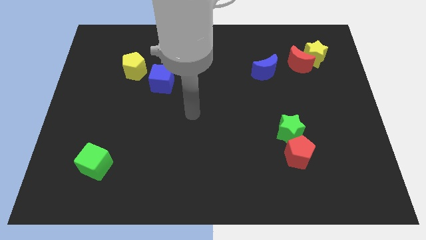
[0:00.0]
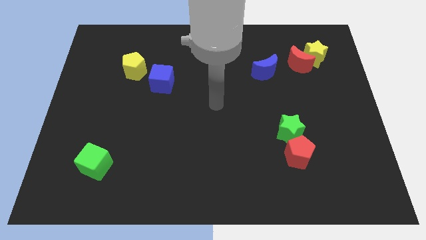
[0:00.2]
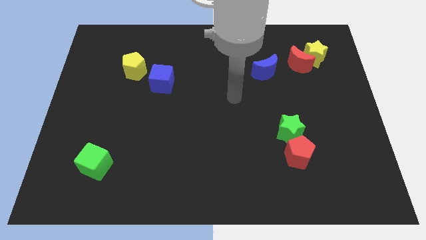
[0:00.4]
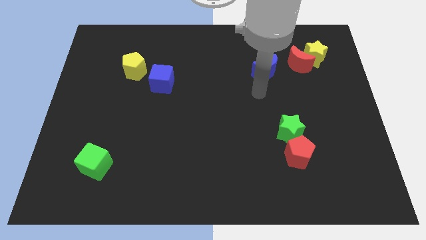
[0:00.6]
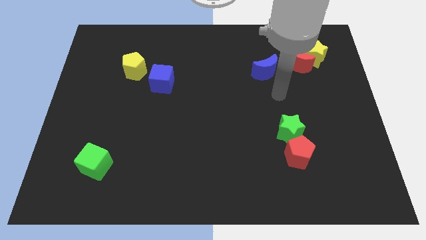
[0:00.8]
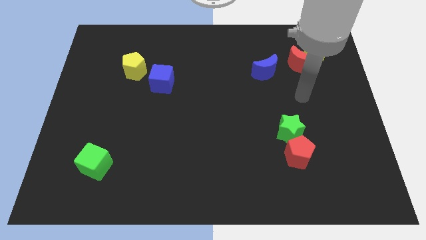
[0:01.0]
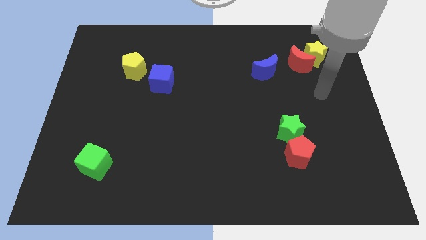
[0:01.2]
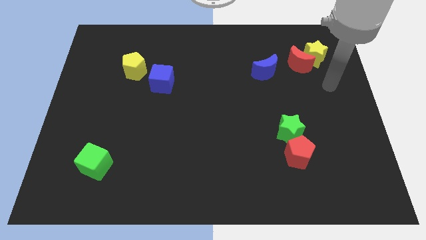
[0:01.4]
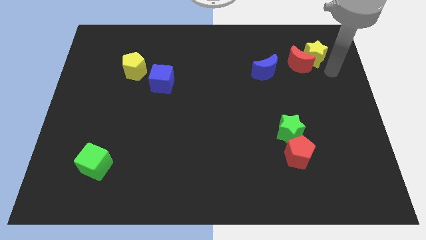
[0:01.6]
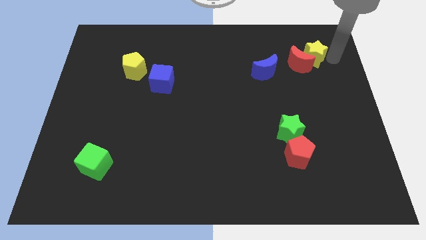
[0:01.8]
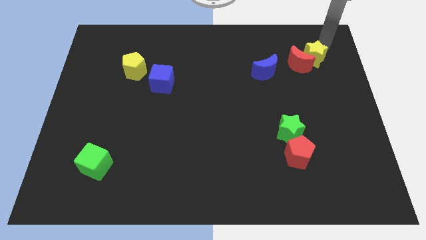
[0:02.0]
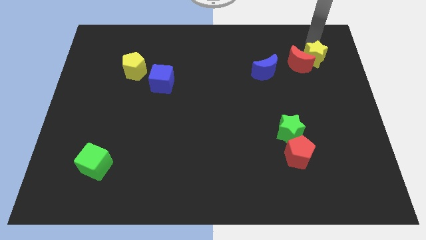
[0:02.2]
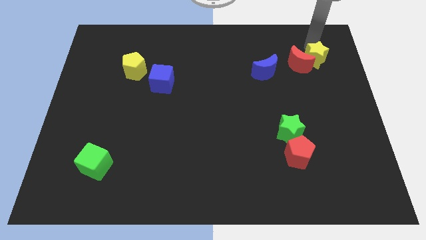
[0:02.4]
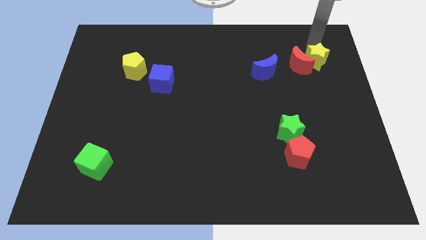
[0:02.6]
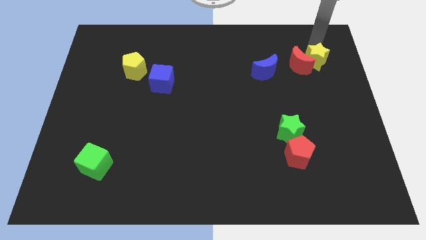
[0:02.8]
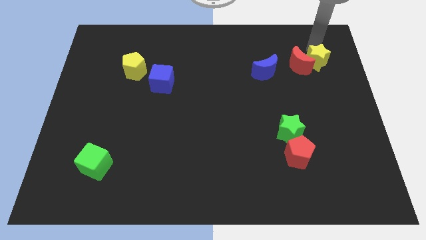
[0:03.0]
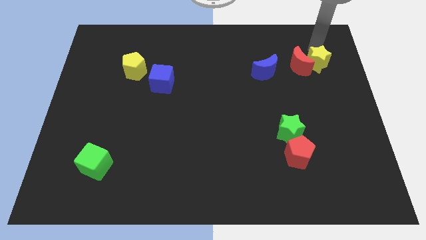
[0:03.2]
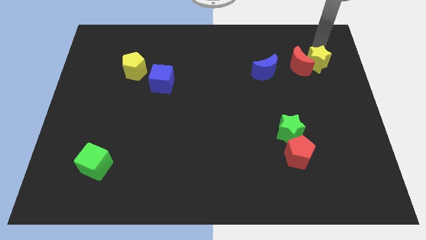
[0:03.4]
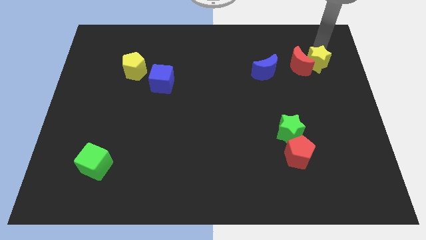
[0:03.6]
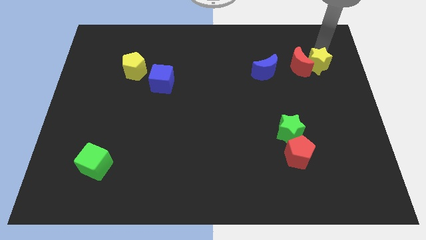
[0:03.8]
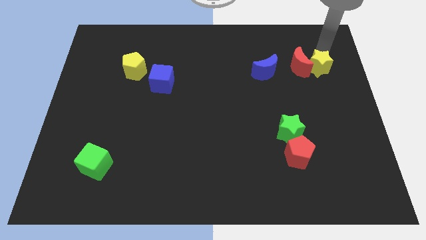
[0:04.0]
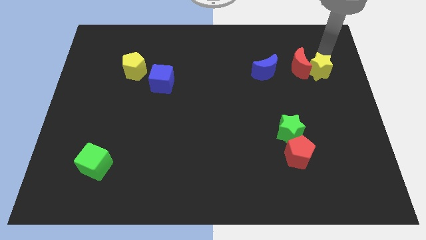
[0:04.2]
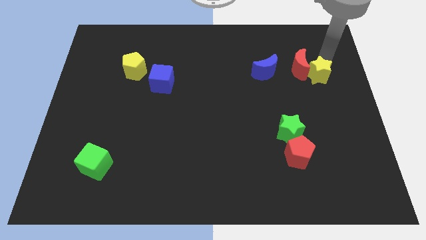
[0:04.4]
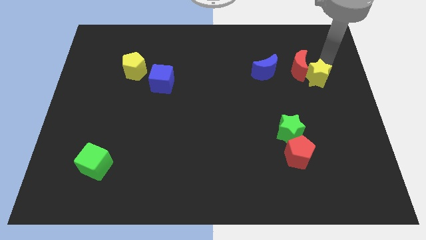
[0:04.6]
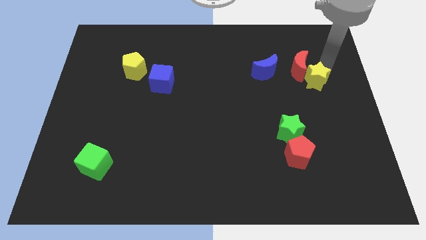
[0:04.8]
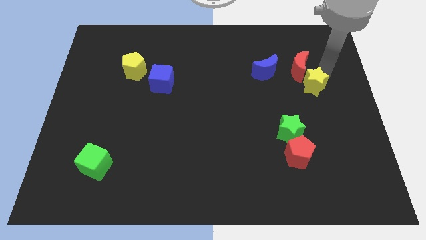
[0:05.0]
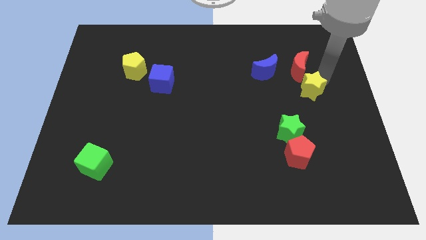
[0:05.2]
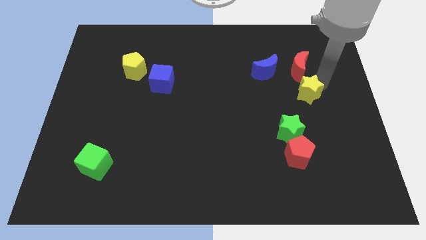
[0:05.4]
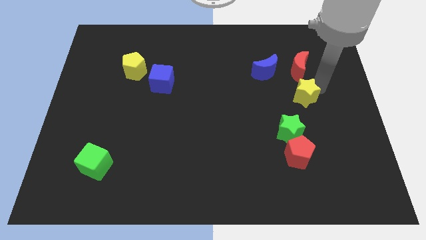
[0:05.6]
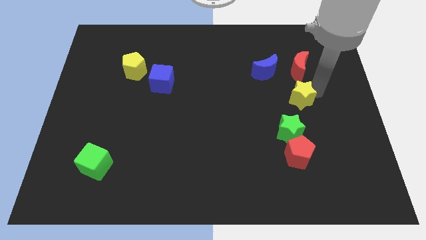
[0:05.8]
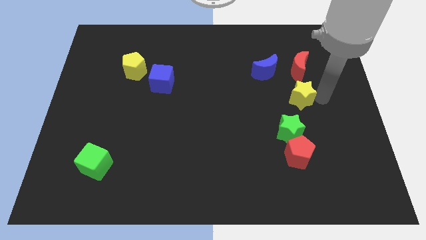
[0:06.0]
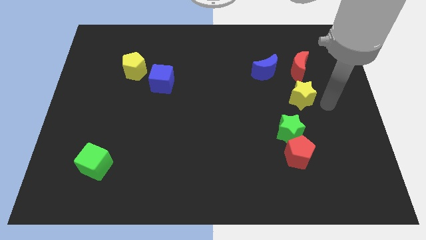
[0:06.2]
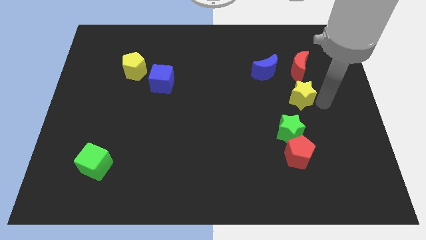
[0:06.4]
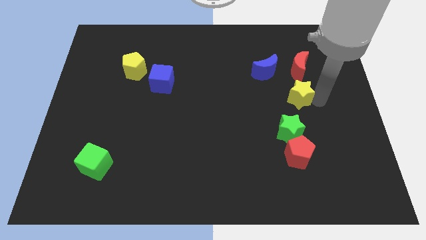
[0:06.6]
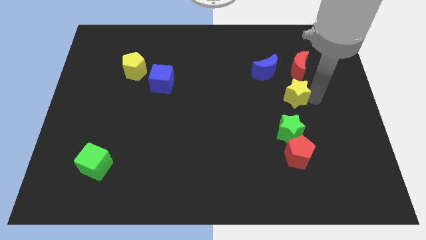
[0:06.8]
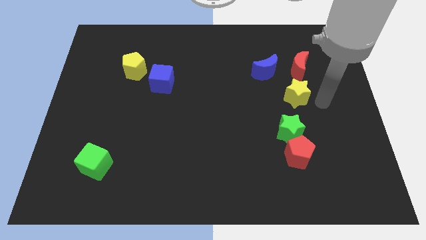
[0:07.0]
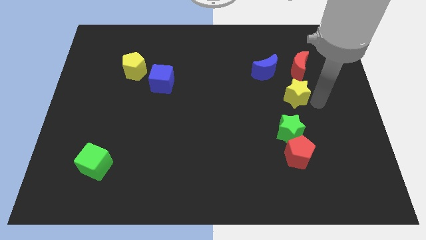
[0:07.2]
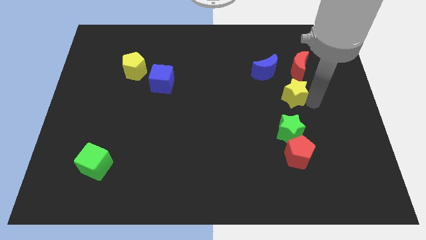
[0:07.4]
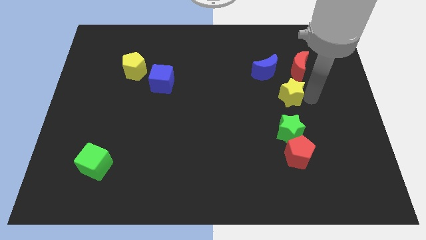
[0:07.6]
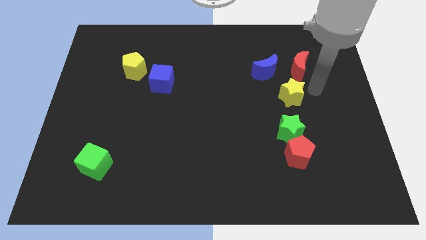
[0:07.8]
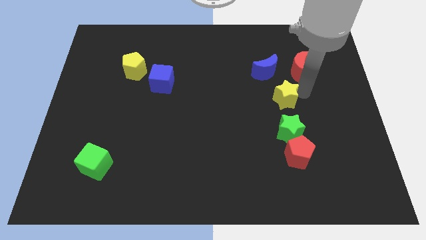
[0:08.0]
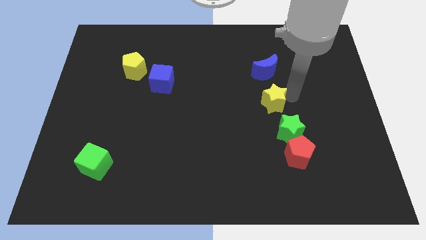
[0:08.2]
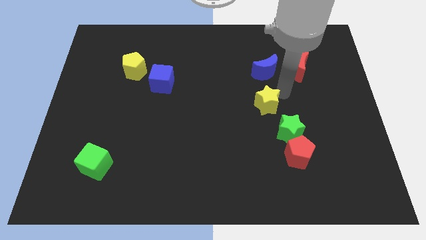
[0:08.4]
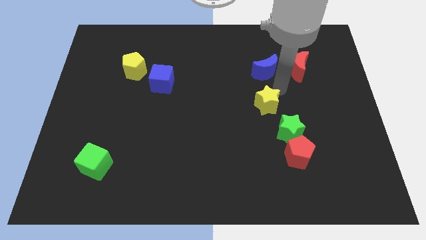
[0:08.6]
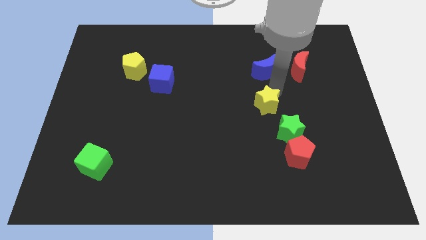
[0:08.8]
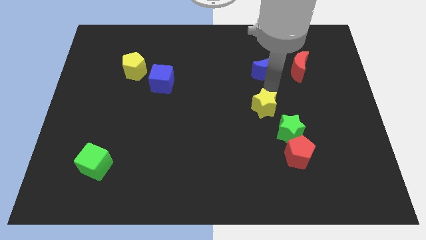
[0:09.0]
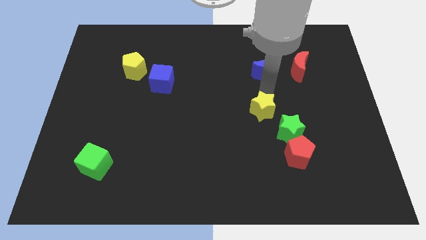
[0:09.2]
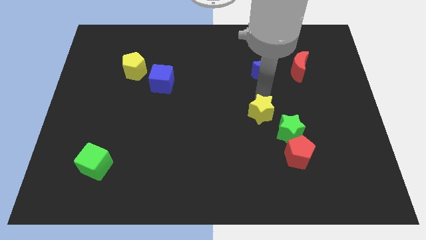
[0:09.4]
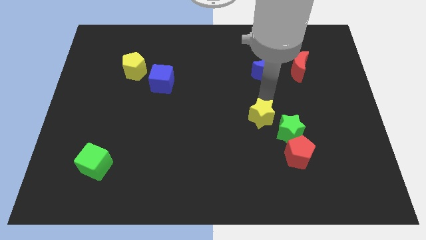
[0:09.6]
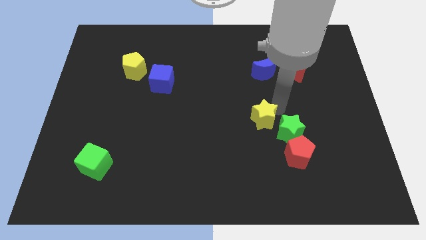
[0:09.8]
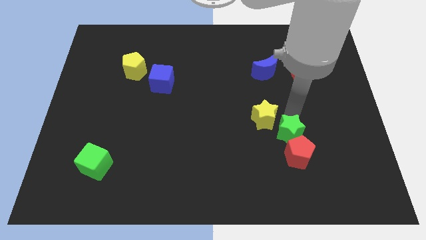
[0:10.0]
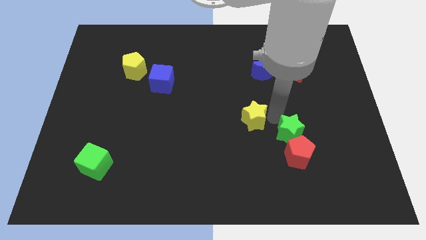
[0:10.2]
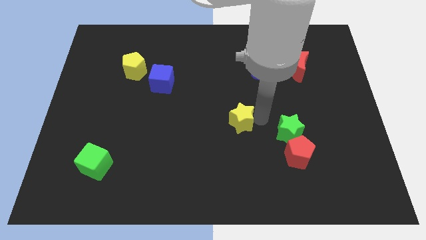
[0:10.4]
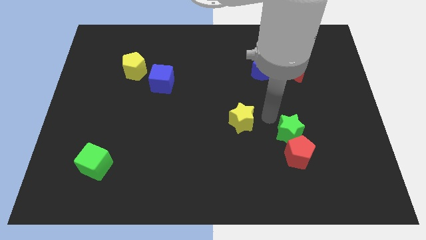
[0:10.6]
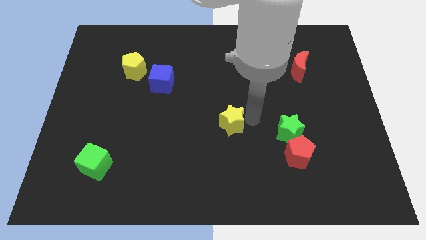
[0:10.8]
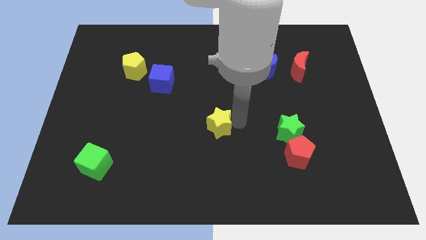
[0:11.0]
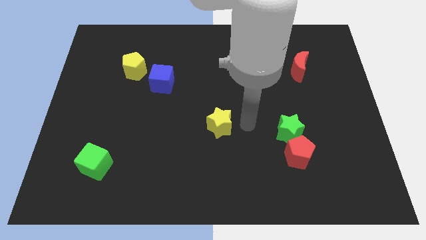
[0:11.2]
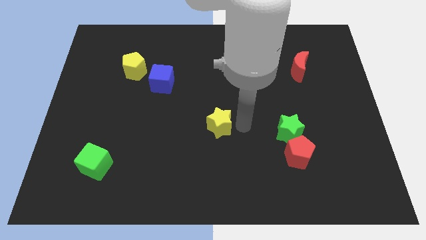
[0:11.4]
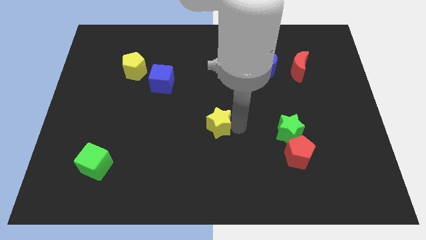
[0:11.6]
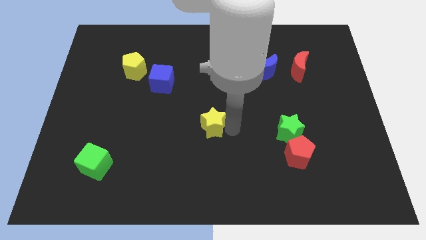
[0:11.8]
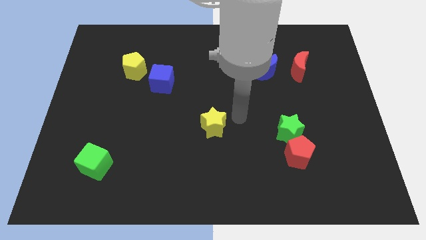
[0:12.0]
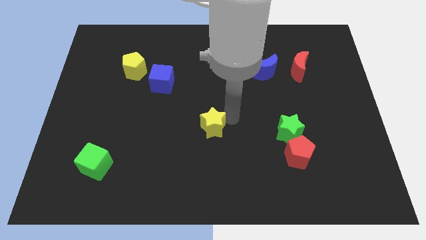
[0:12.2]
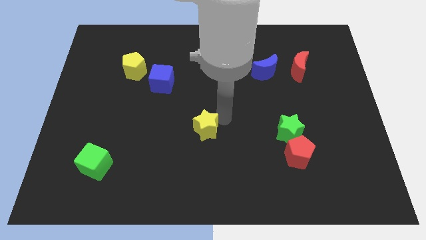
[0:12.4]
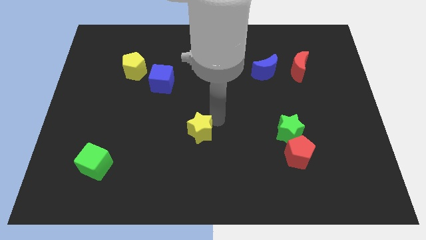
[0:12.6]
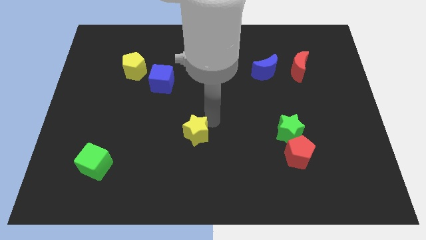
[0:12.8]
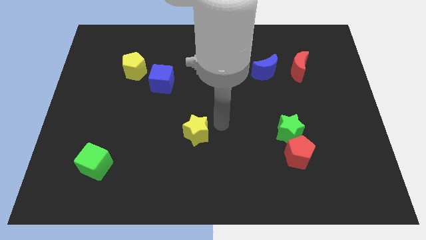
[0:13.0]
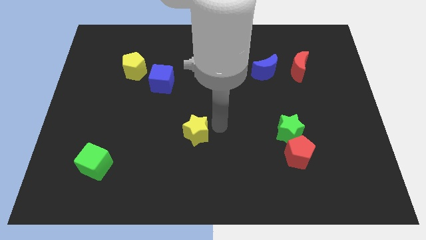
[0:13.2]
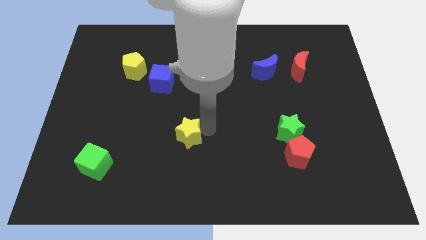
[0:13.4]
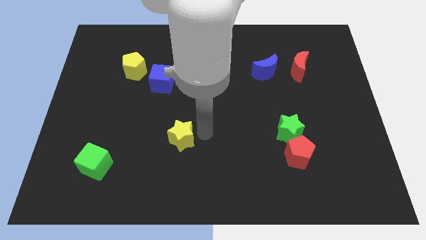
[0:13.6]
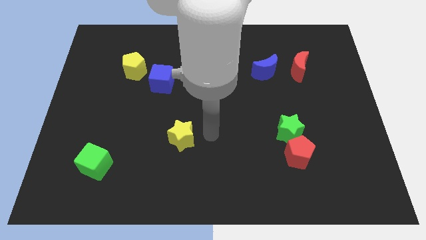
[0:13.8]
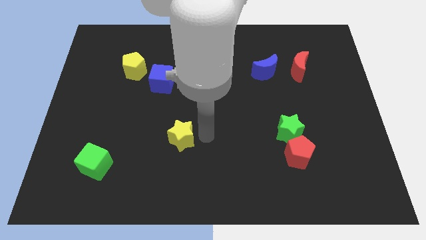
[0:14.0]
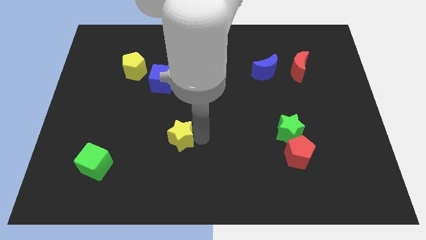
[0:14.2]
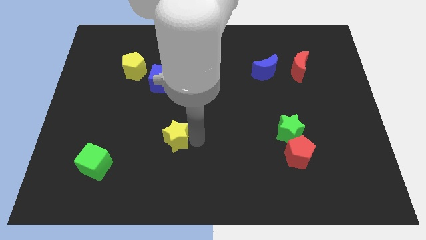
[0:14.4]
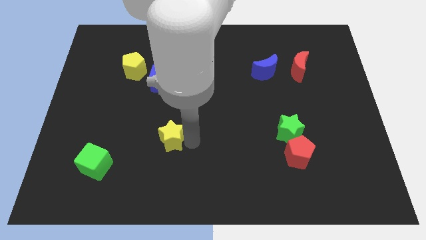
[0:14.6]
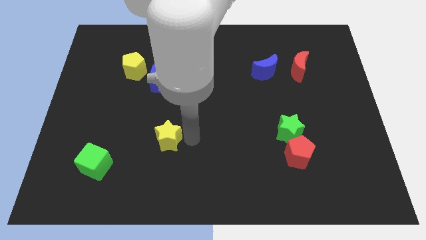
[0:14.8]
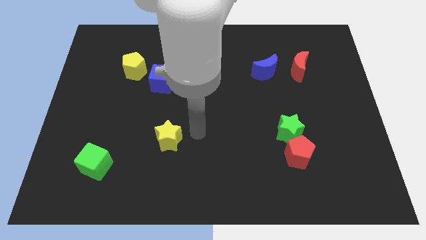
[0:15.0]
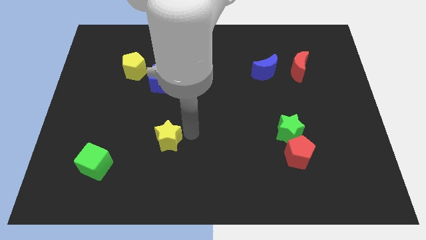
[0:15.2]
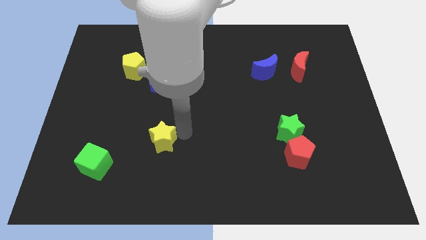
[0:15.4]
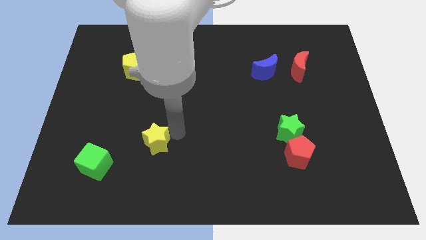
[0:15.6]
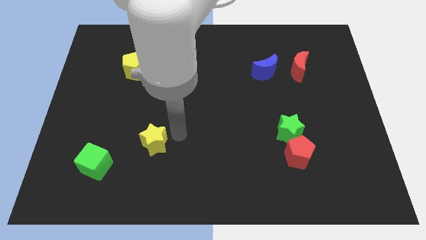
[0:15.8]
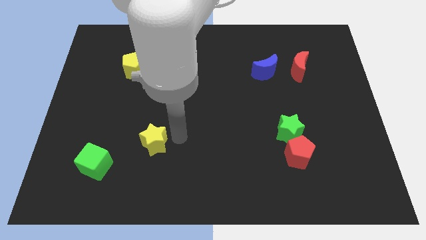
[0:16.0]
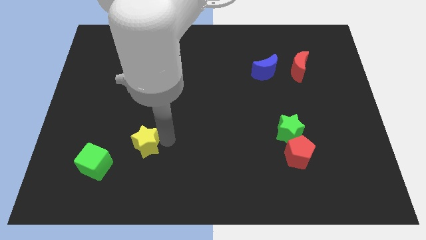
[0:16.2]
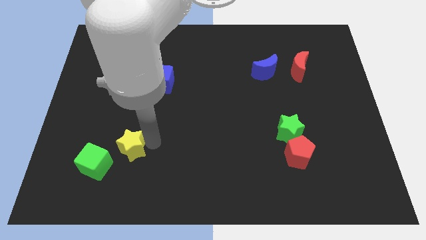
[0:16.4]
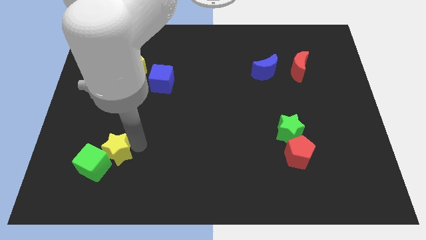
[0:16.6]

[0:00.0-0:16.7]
move the yellow star towards the green cube
